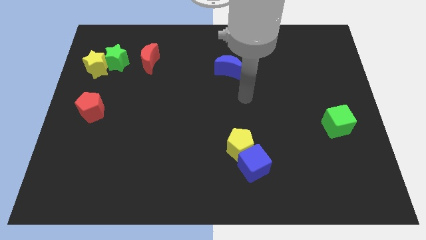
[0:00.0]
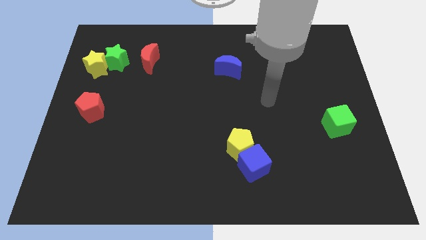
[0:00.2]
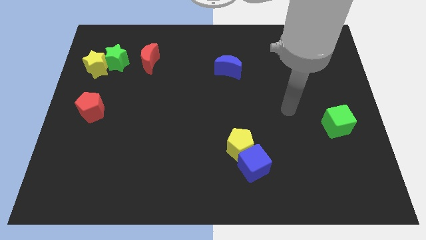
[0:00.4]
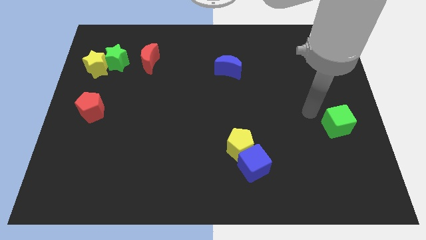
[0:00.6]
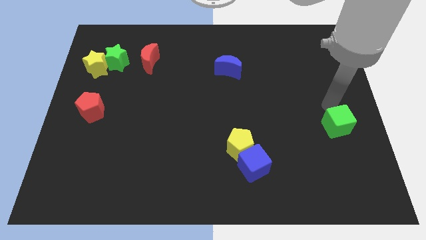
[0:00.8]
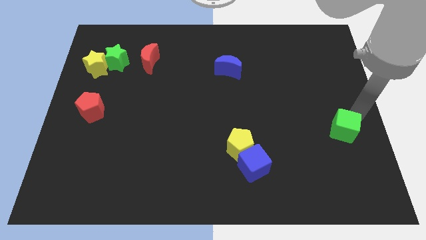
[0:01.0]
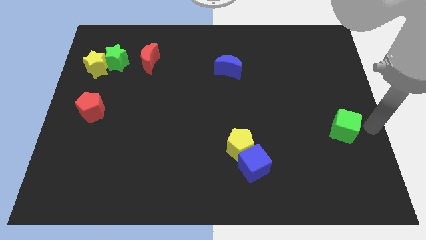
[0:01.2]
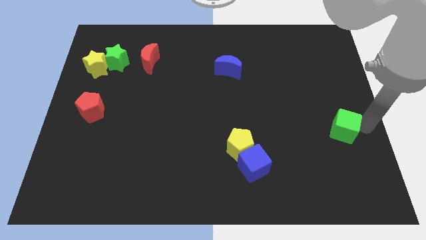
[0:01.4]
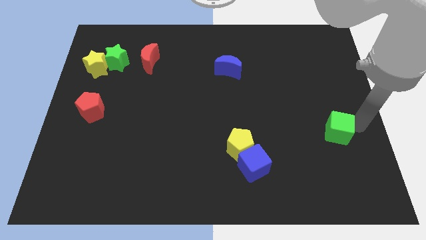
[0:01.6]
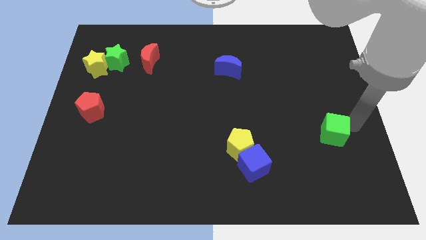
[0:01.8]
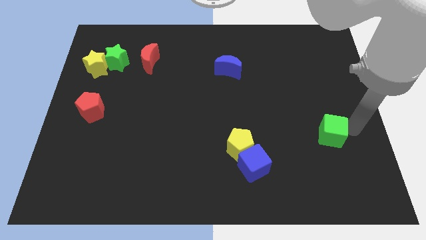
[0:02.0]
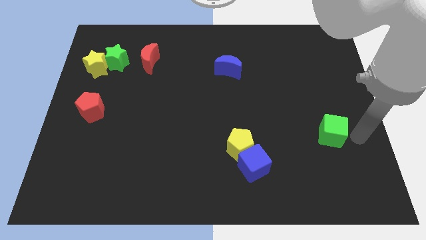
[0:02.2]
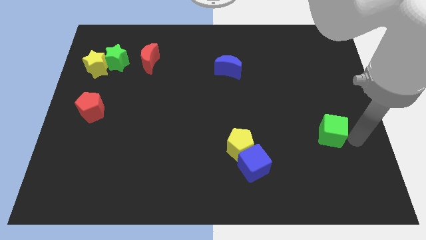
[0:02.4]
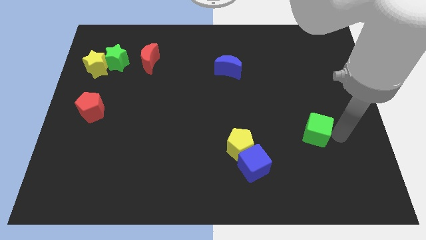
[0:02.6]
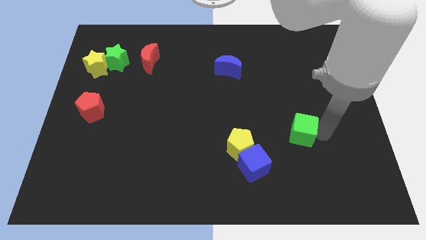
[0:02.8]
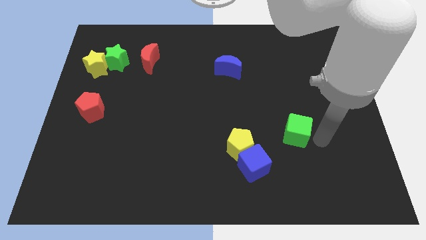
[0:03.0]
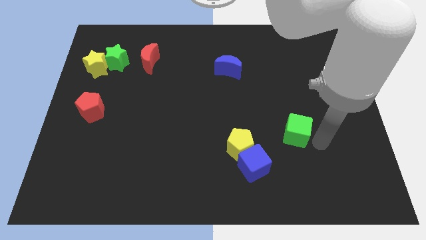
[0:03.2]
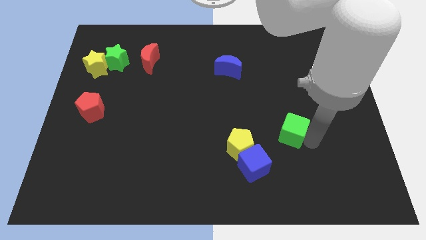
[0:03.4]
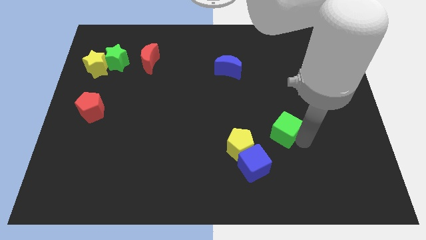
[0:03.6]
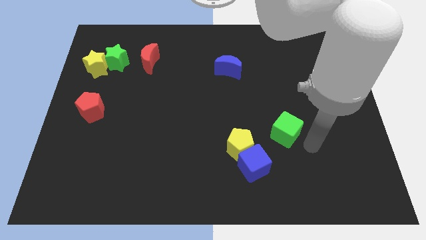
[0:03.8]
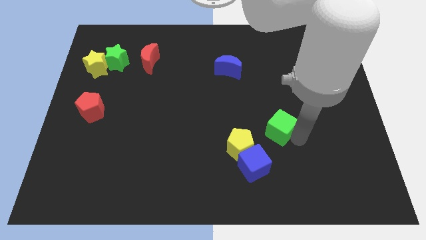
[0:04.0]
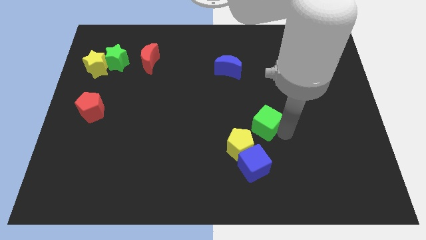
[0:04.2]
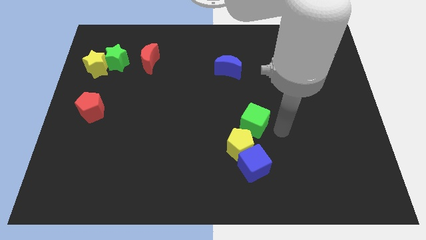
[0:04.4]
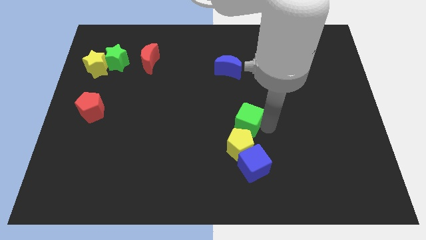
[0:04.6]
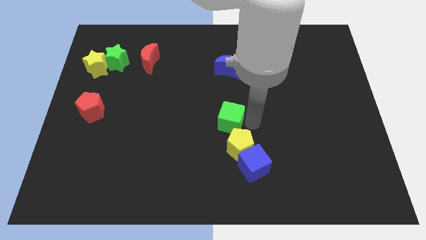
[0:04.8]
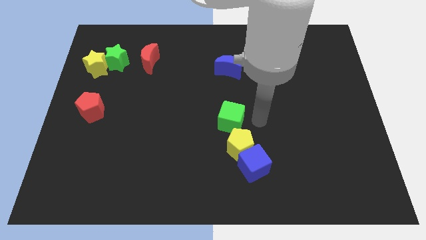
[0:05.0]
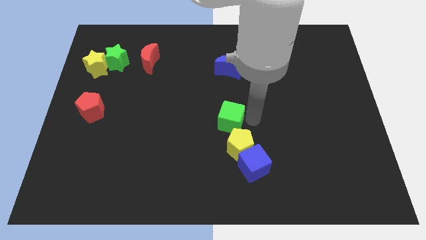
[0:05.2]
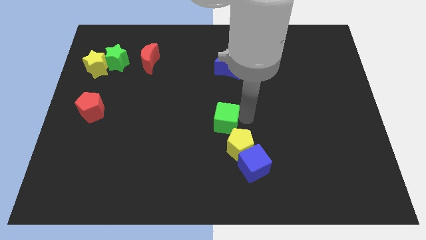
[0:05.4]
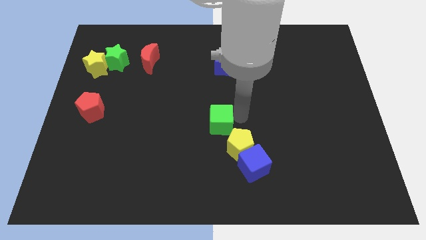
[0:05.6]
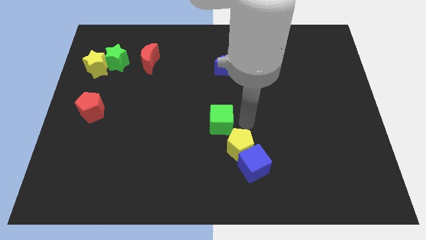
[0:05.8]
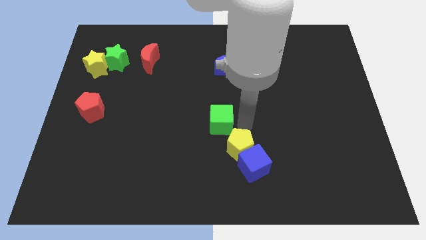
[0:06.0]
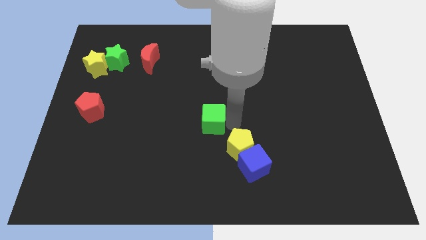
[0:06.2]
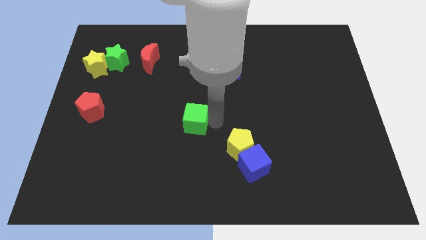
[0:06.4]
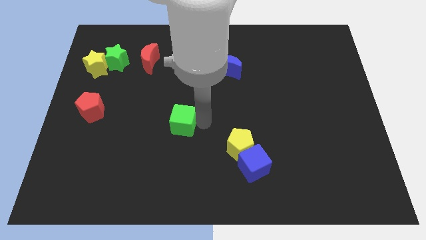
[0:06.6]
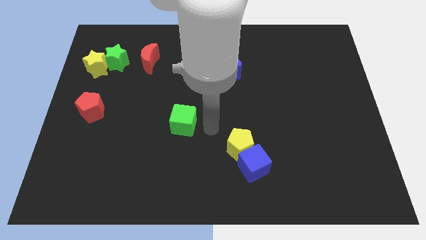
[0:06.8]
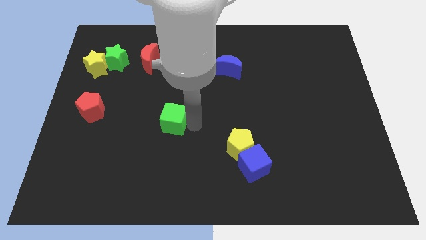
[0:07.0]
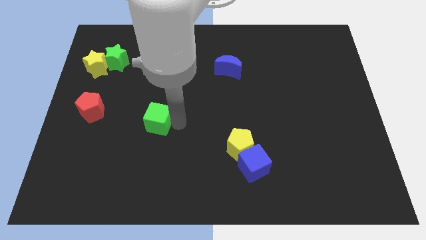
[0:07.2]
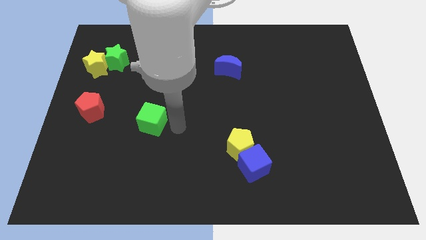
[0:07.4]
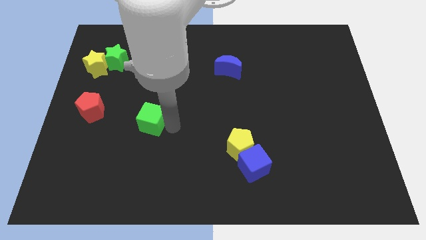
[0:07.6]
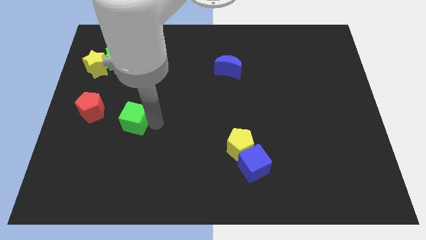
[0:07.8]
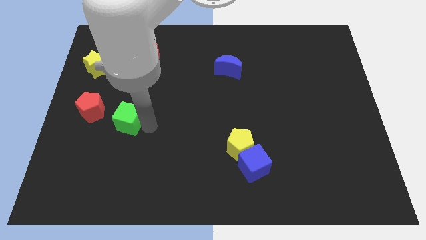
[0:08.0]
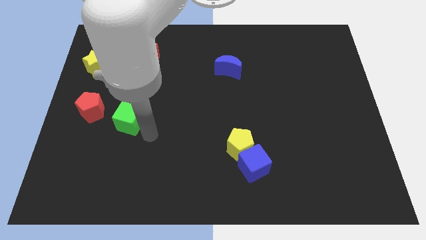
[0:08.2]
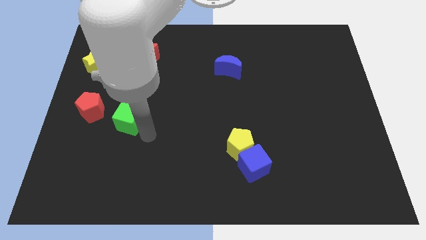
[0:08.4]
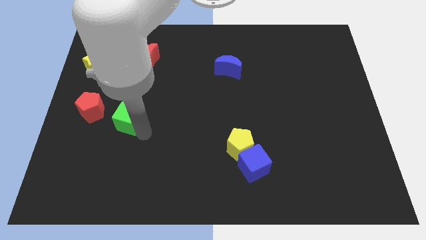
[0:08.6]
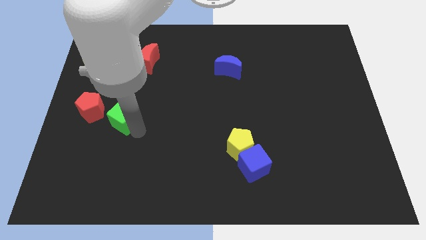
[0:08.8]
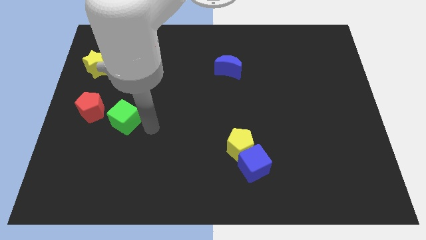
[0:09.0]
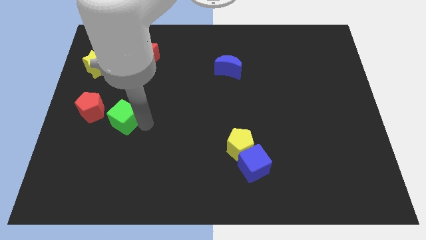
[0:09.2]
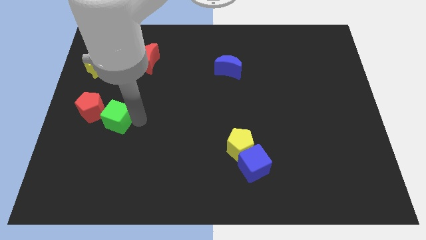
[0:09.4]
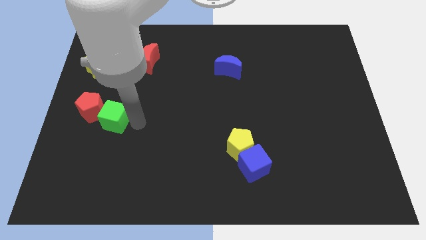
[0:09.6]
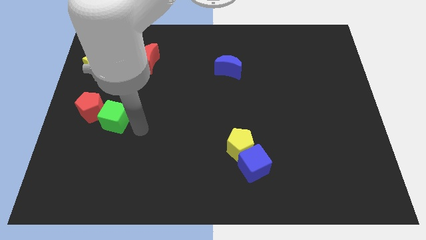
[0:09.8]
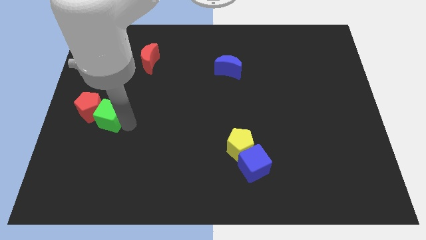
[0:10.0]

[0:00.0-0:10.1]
push the green cube to the red pentagon

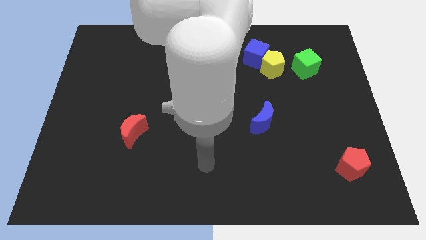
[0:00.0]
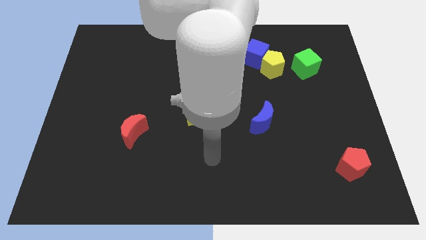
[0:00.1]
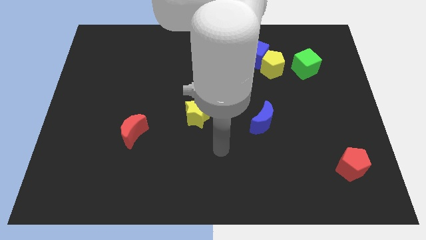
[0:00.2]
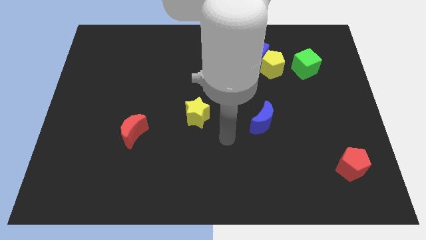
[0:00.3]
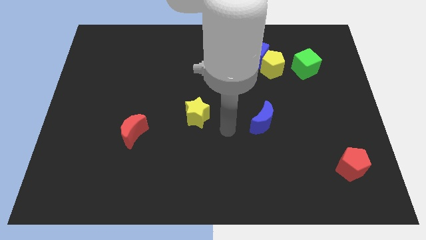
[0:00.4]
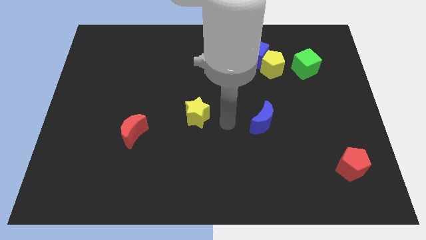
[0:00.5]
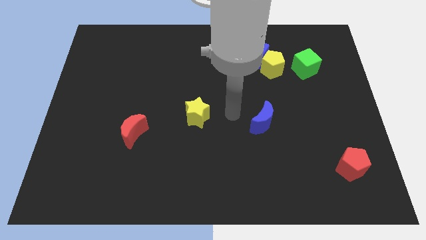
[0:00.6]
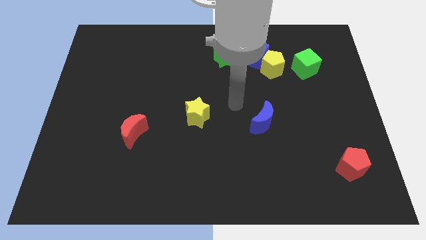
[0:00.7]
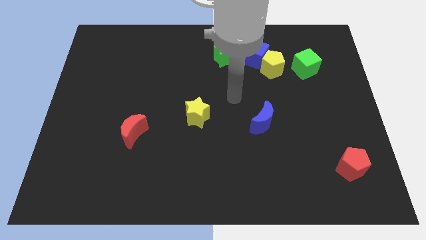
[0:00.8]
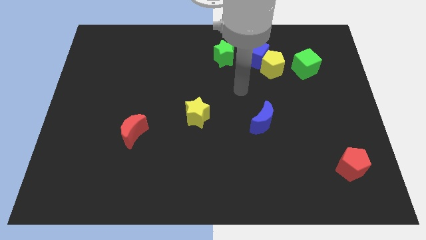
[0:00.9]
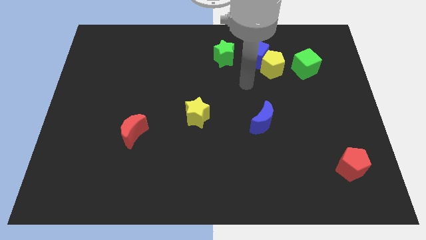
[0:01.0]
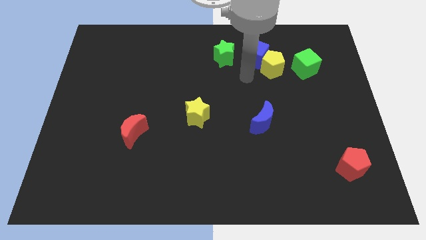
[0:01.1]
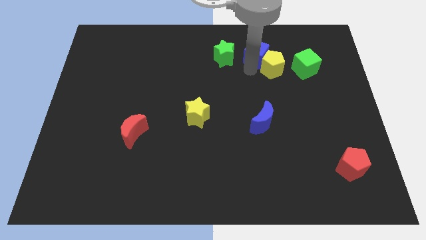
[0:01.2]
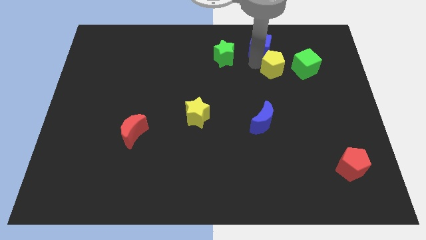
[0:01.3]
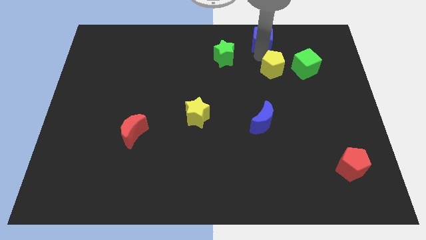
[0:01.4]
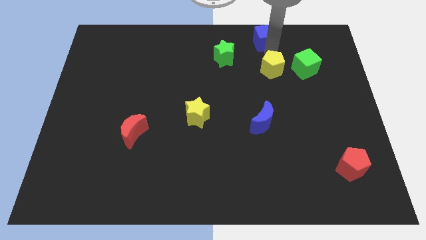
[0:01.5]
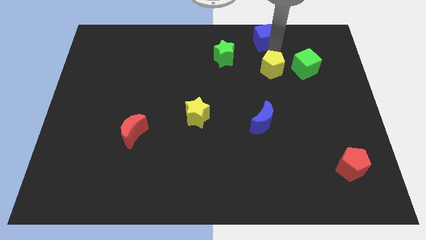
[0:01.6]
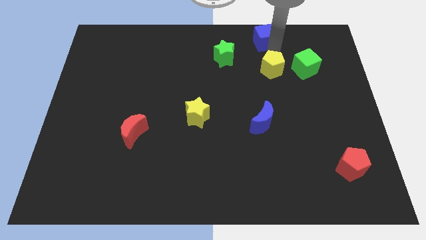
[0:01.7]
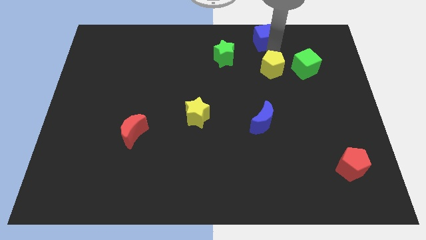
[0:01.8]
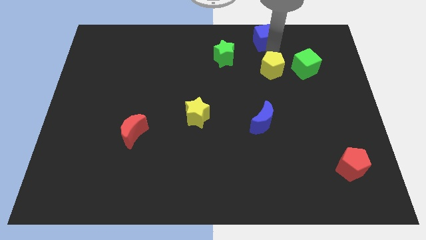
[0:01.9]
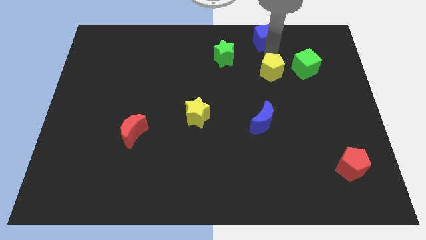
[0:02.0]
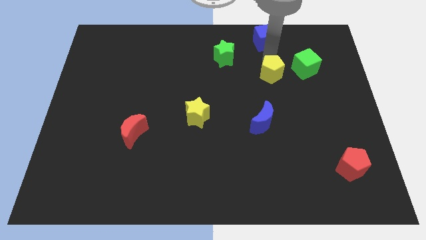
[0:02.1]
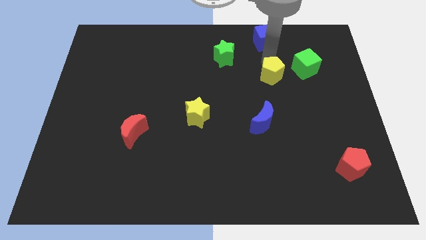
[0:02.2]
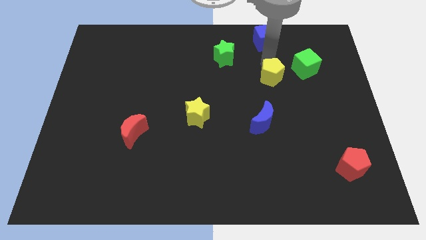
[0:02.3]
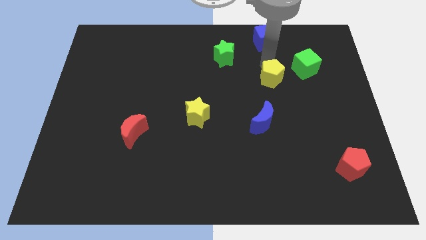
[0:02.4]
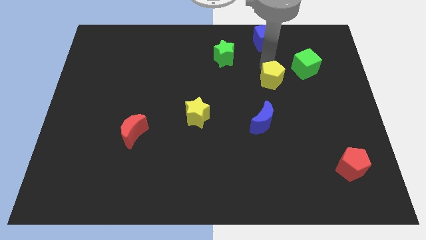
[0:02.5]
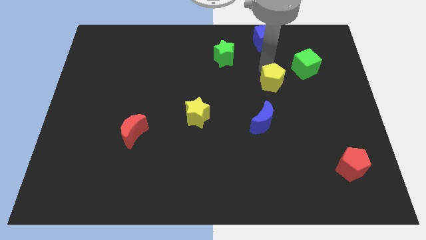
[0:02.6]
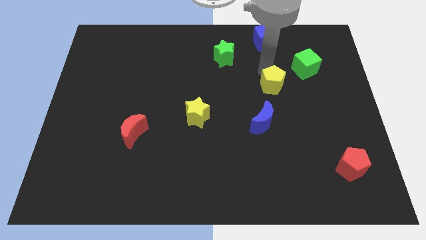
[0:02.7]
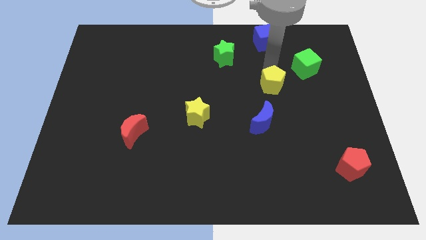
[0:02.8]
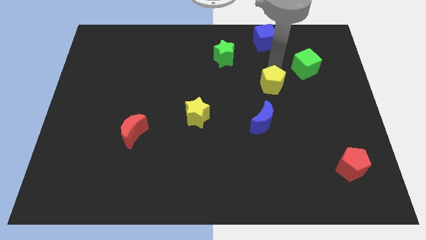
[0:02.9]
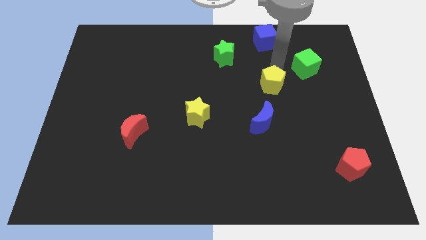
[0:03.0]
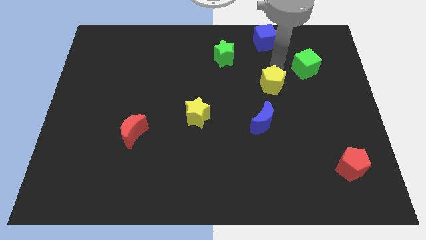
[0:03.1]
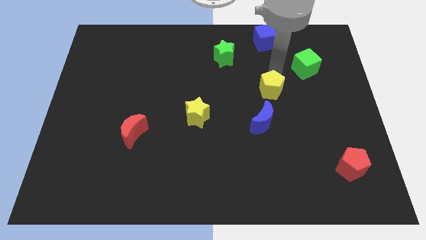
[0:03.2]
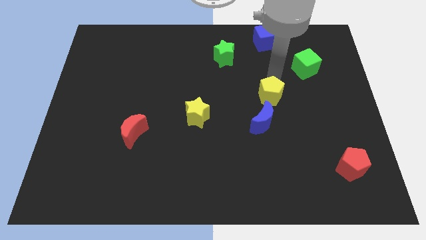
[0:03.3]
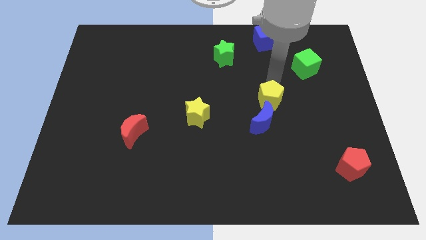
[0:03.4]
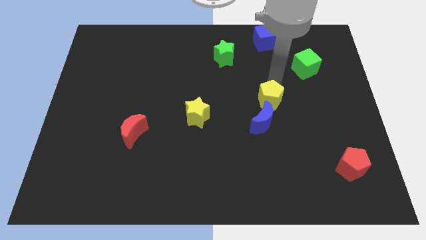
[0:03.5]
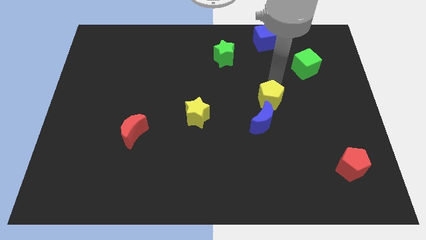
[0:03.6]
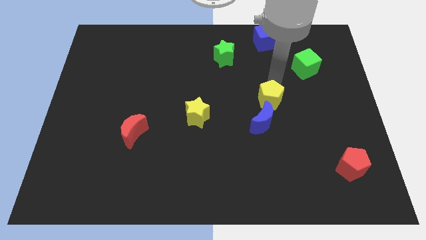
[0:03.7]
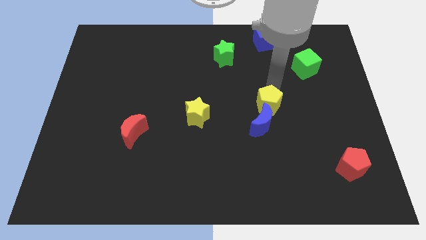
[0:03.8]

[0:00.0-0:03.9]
put the yellow pentagon to the blue moon
